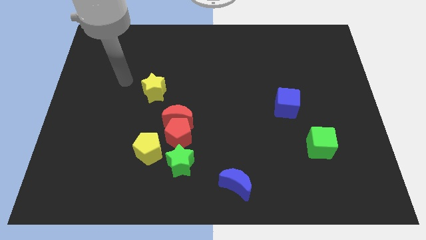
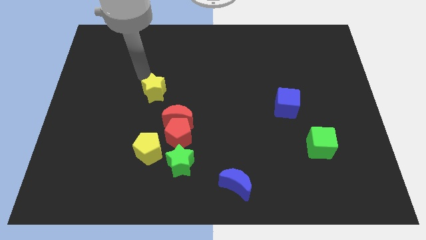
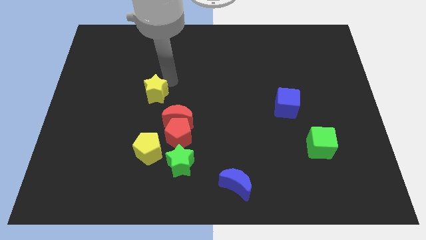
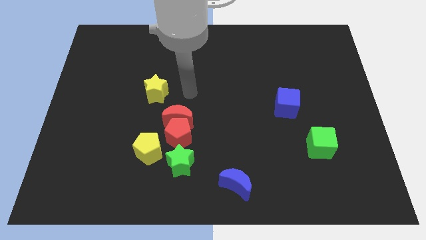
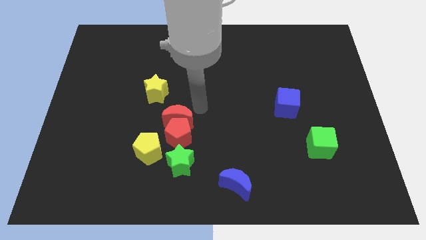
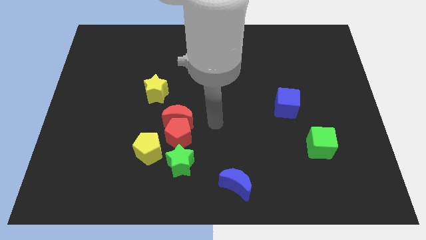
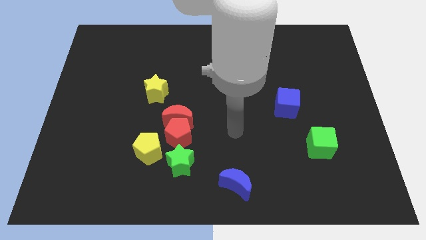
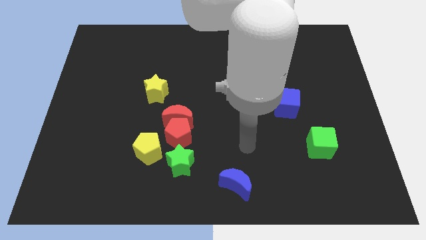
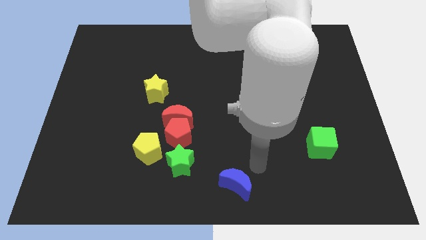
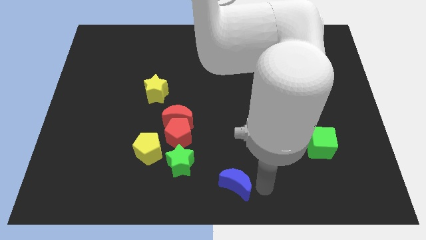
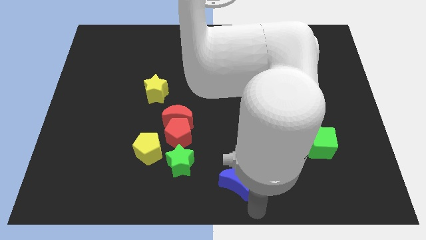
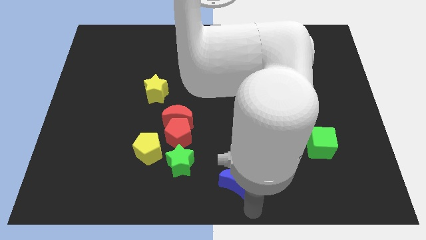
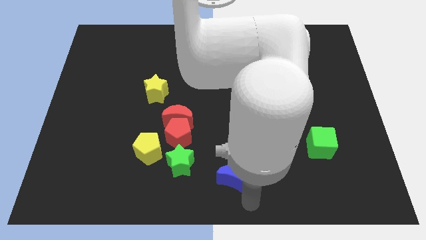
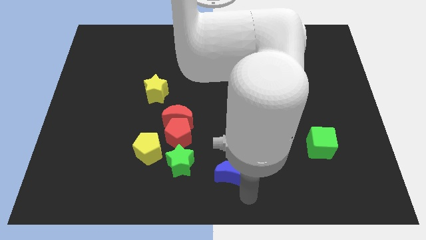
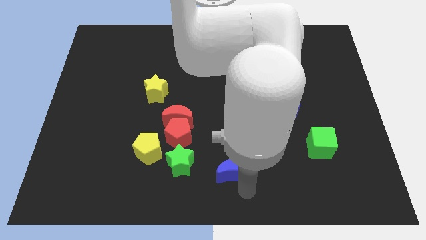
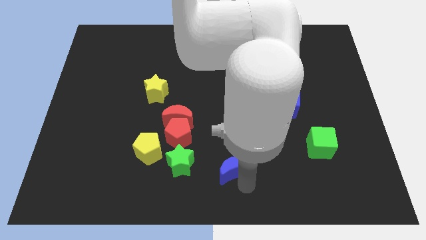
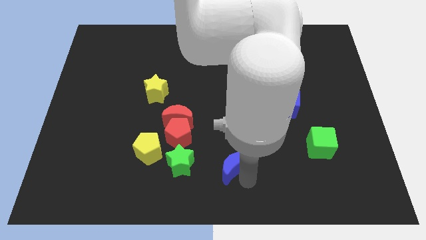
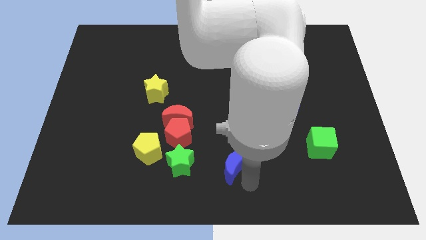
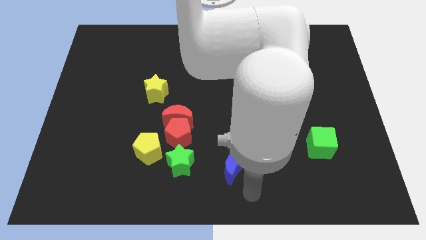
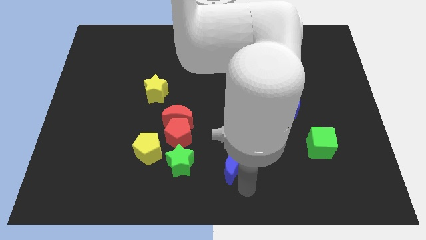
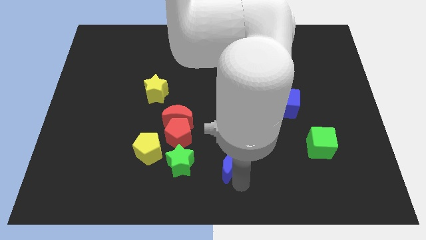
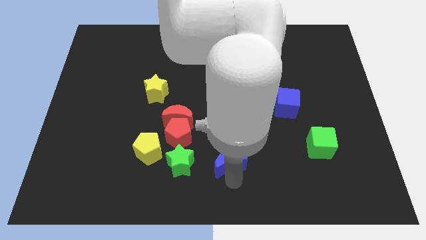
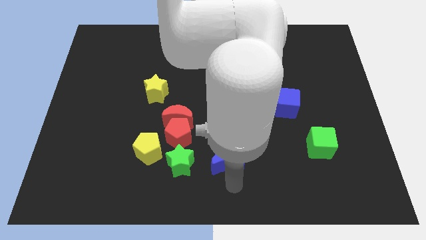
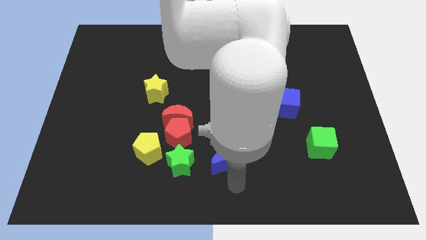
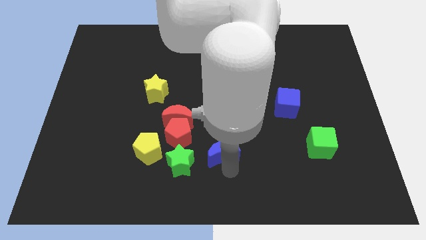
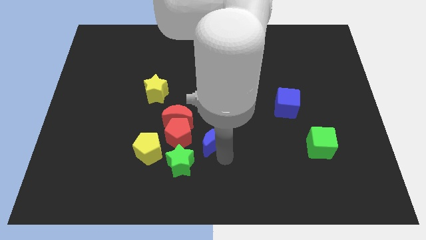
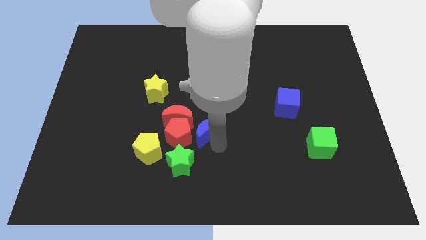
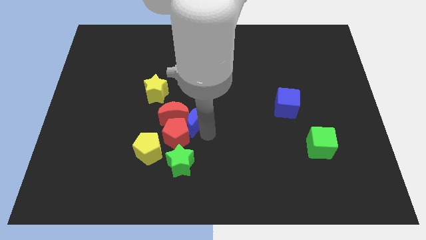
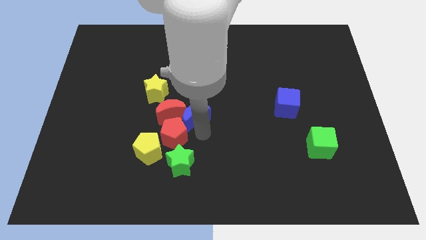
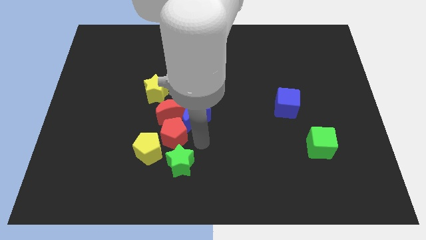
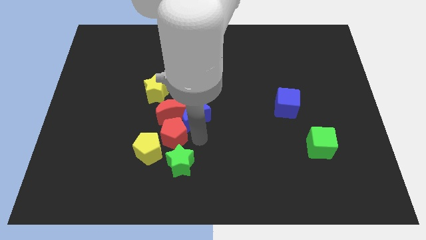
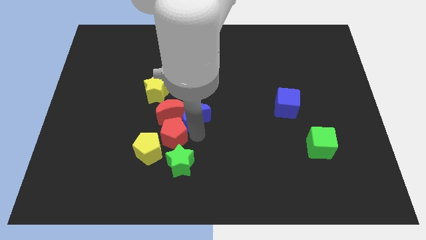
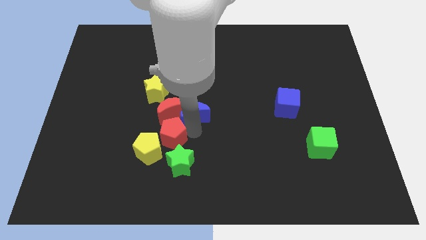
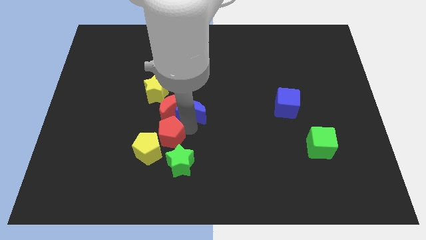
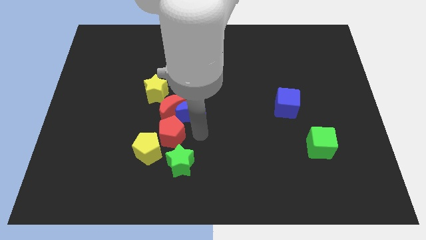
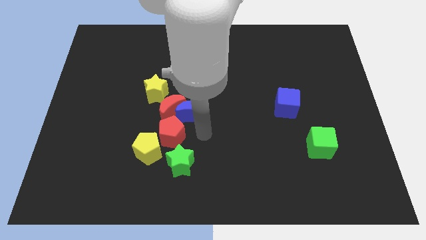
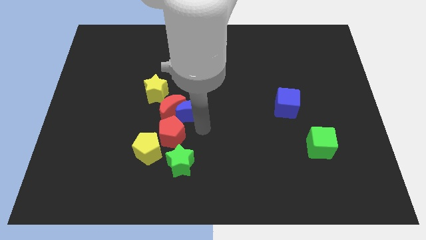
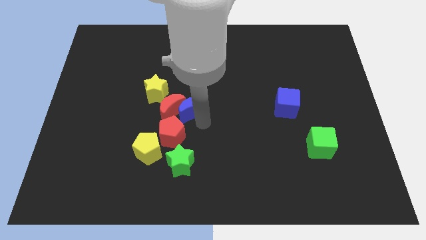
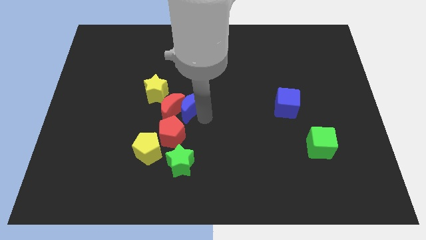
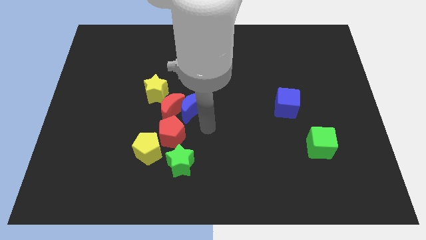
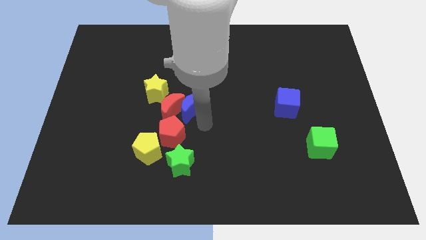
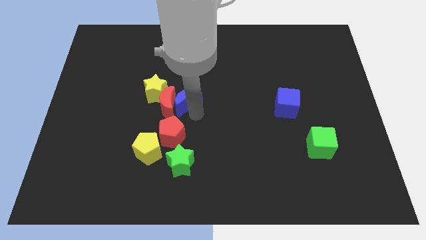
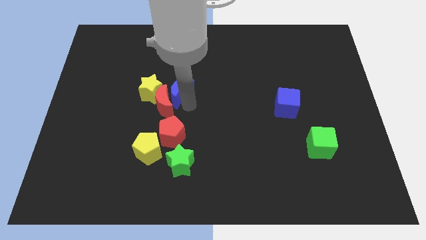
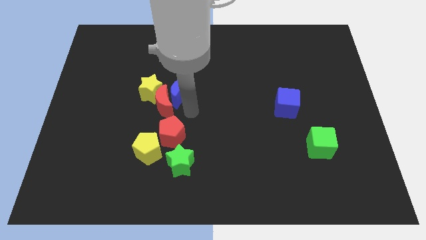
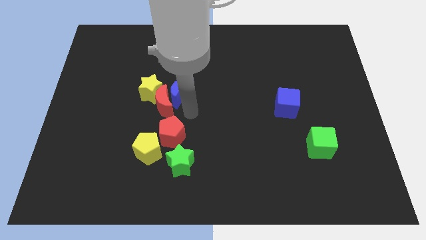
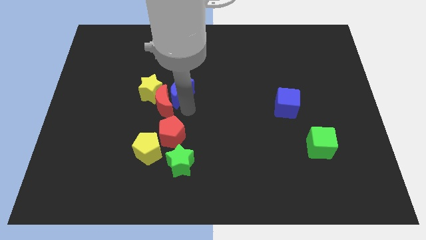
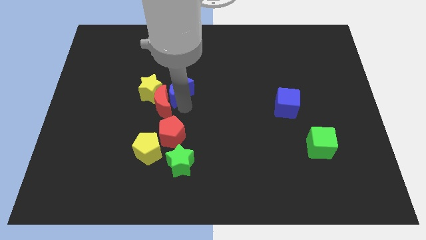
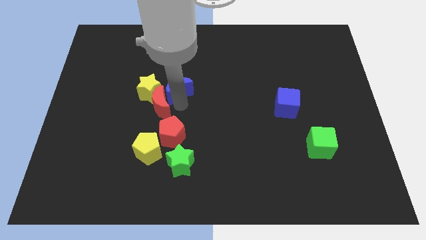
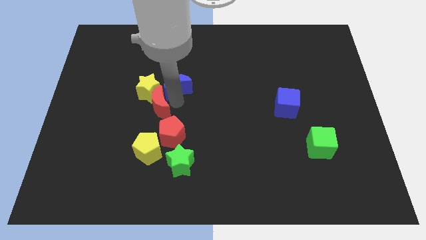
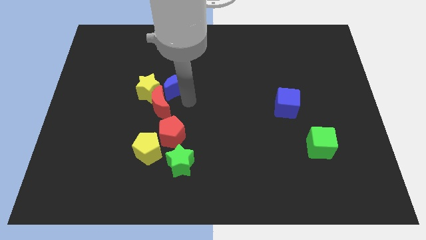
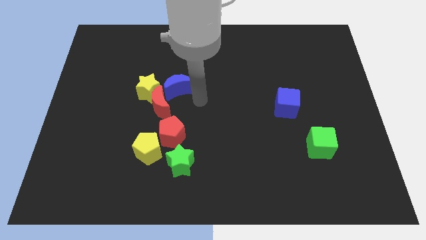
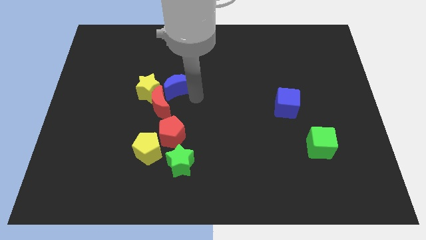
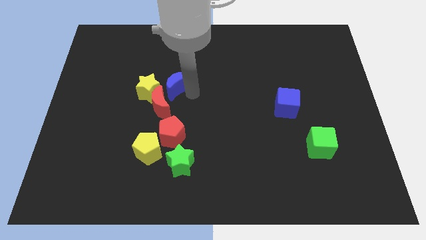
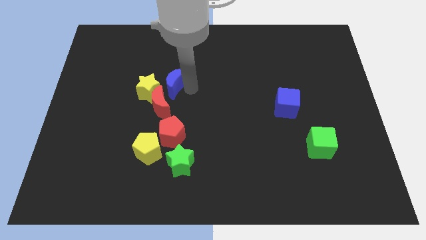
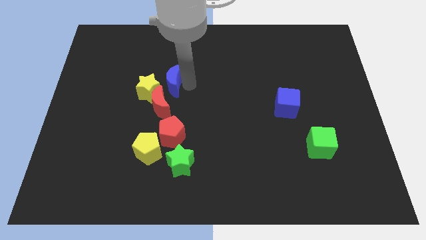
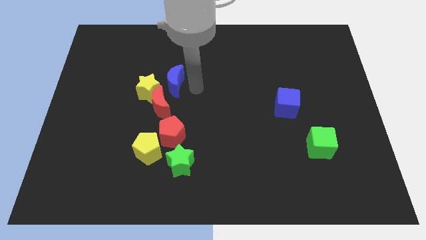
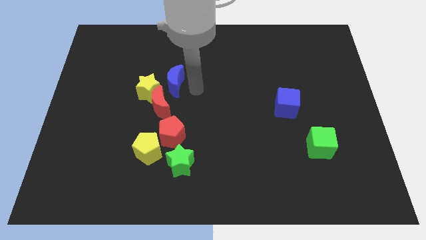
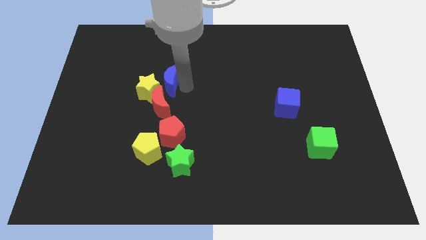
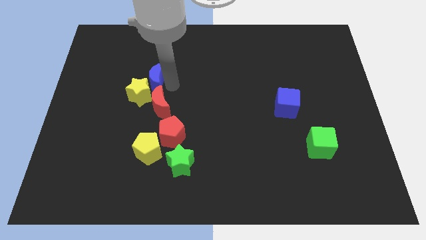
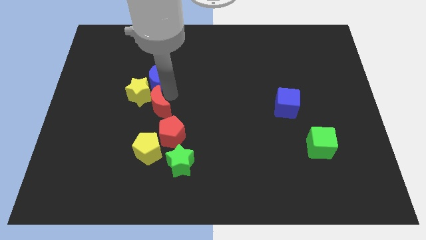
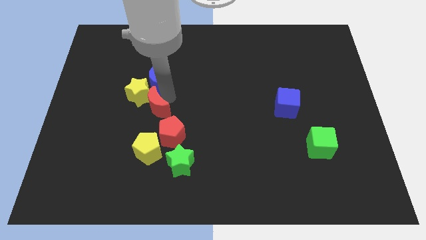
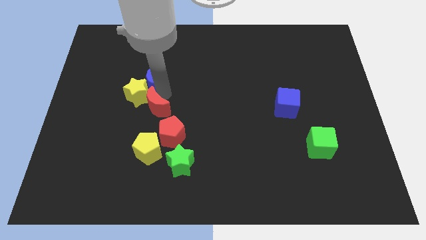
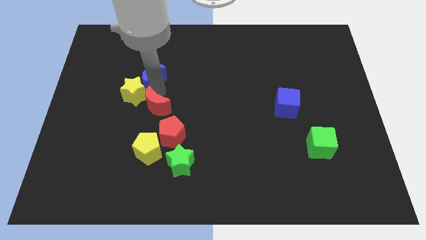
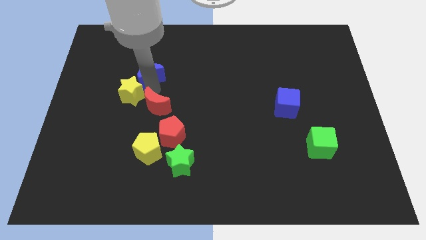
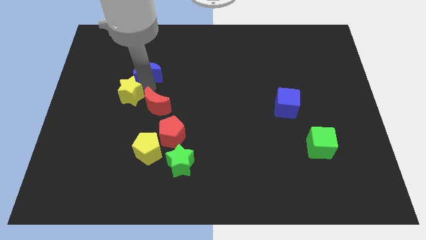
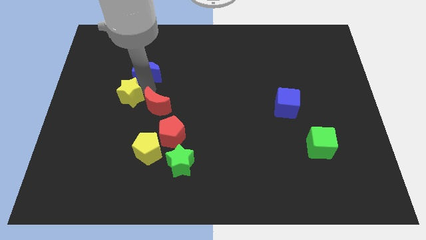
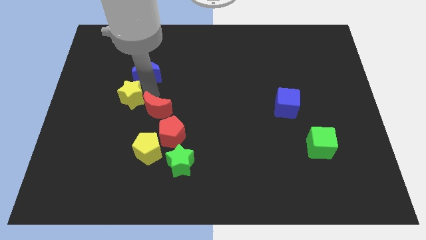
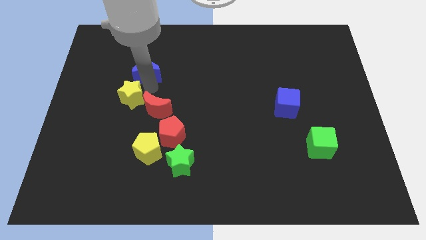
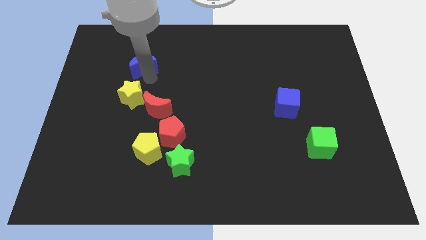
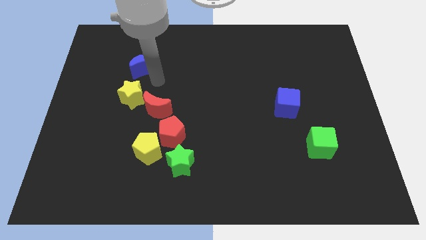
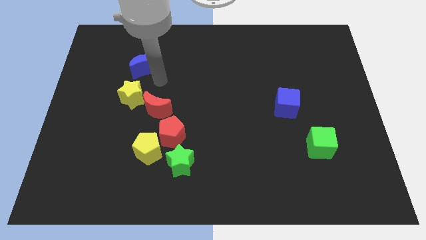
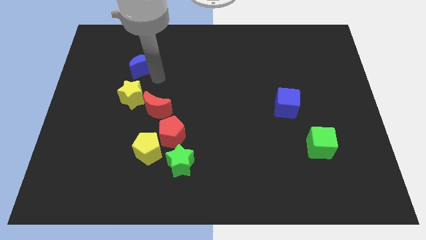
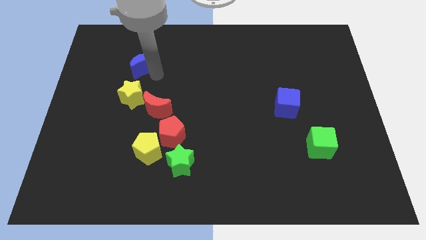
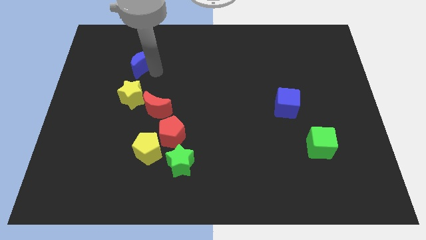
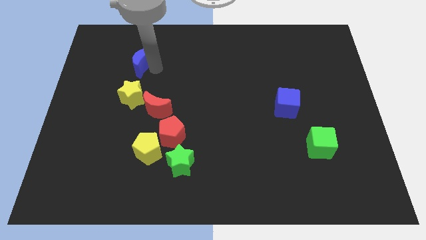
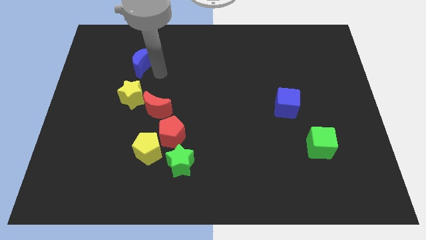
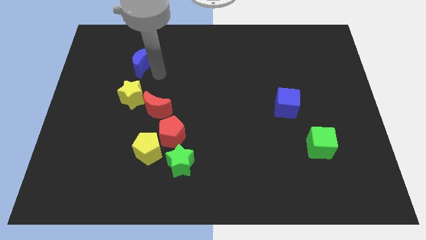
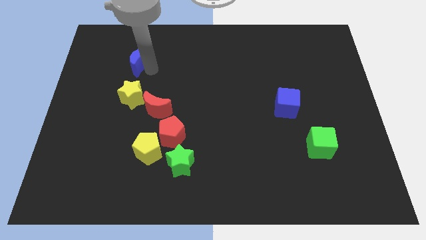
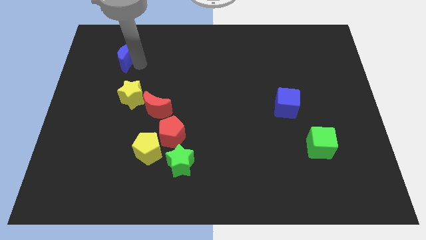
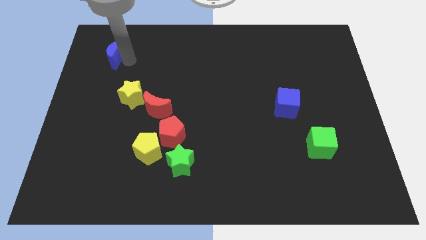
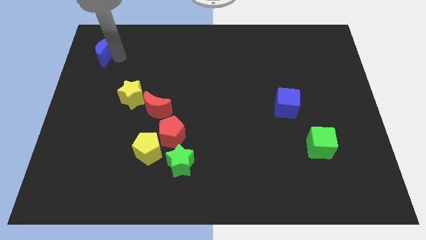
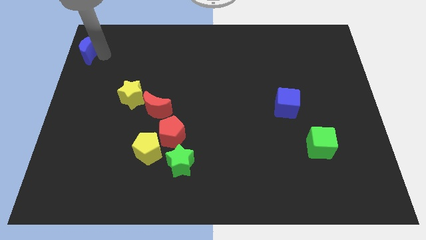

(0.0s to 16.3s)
put the blue moon to the top left corner
